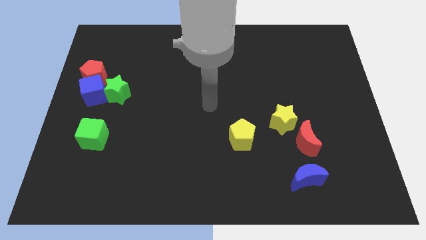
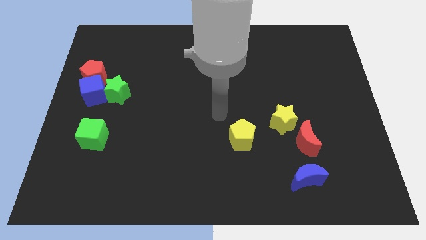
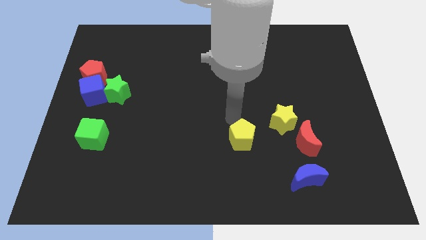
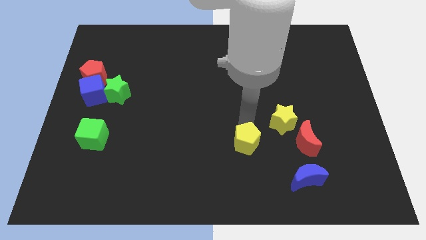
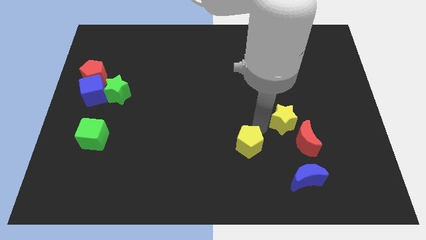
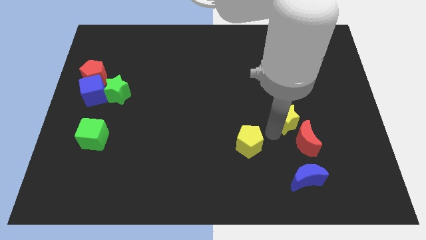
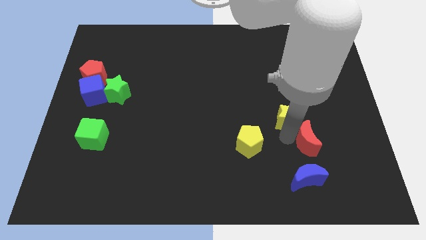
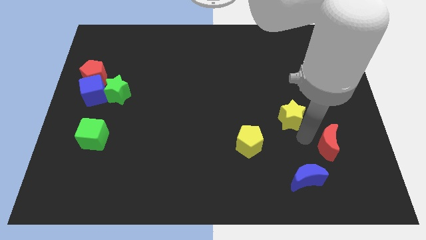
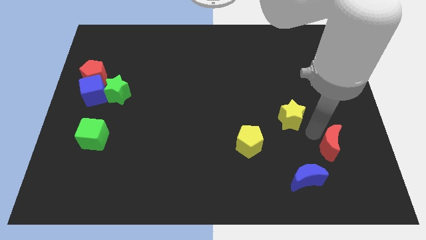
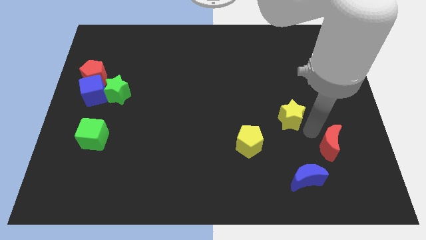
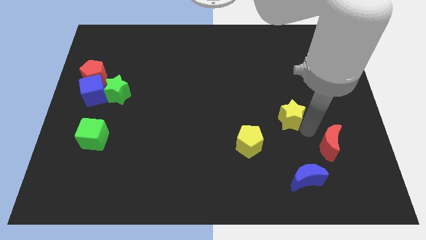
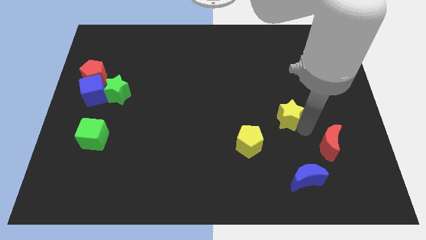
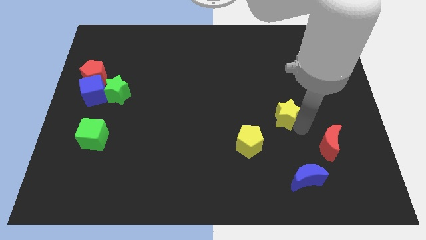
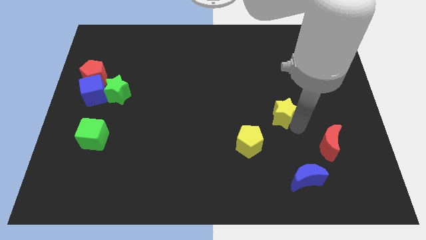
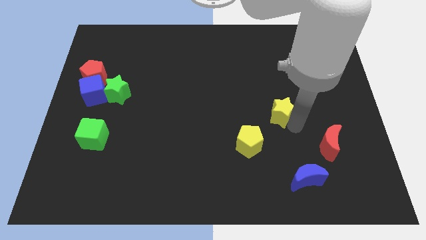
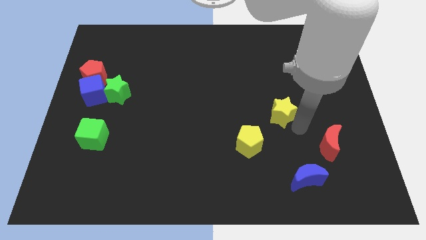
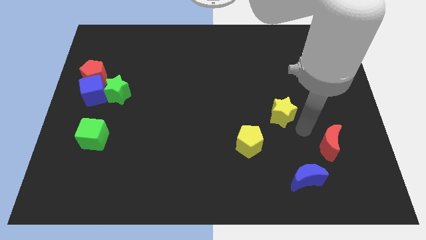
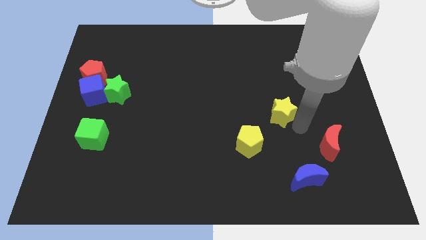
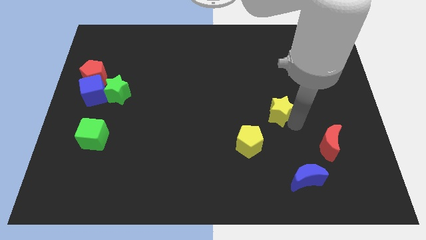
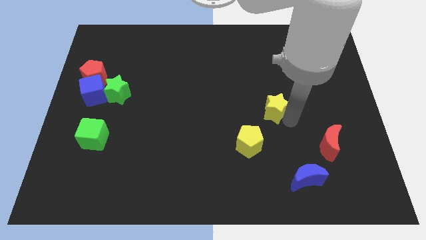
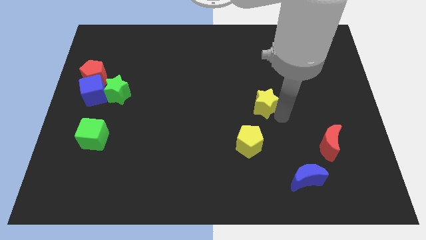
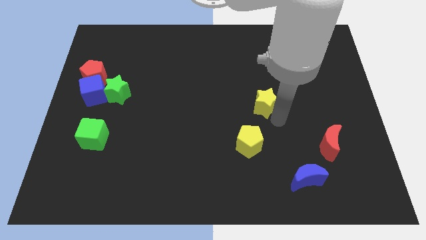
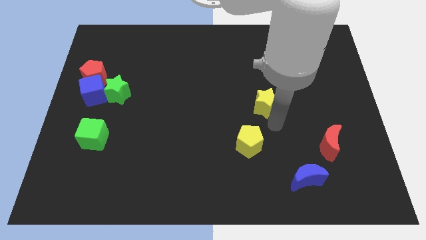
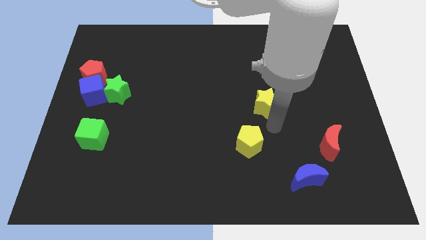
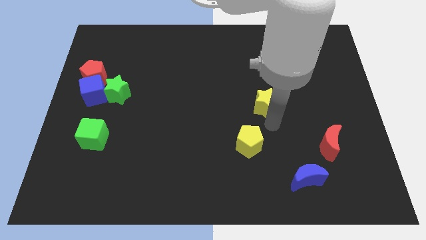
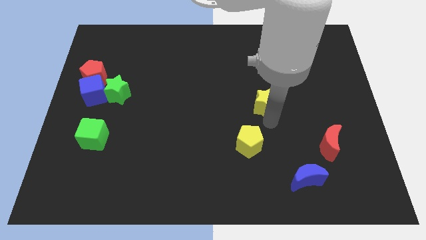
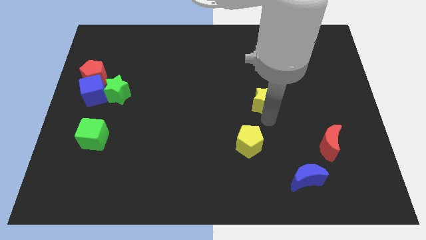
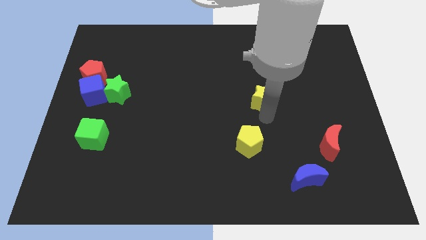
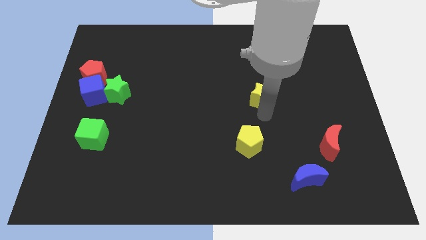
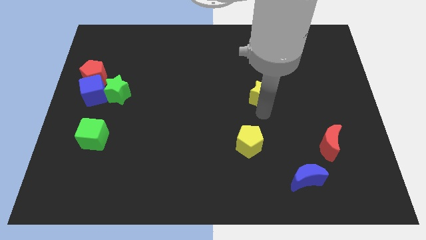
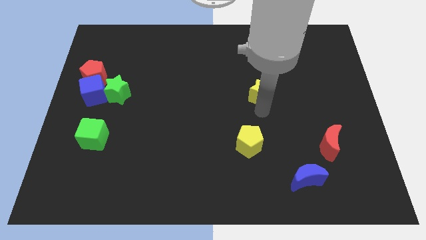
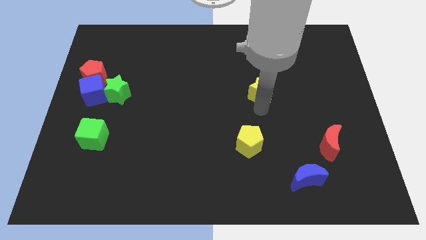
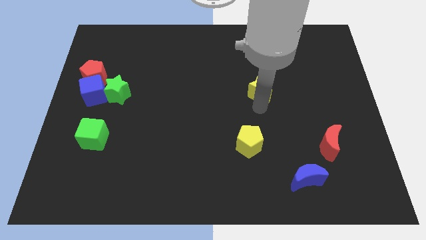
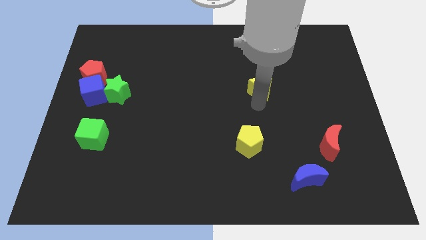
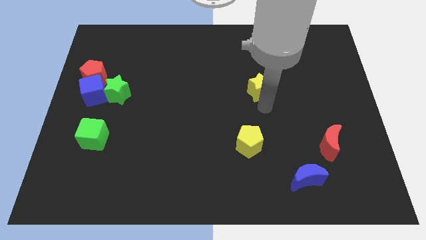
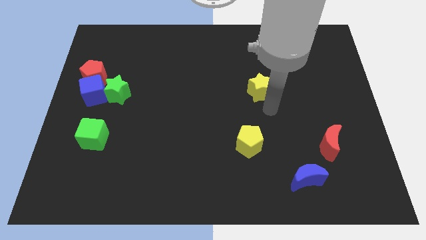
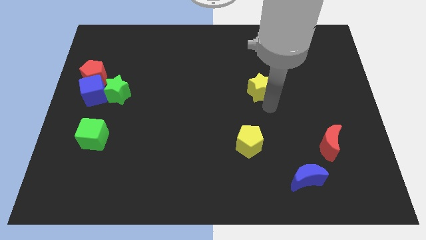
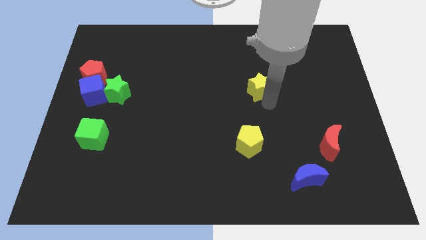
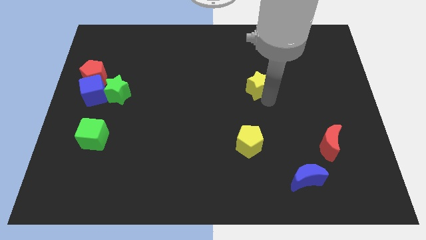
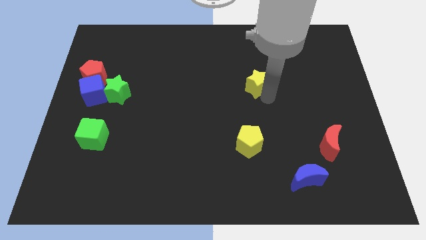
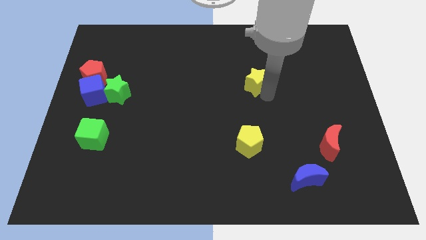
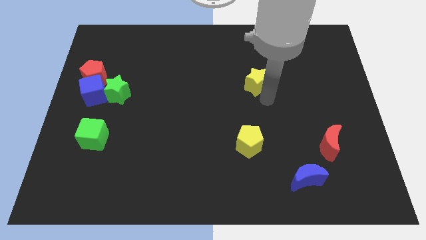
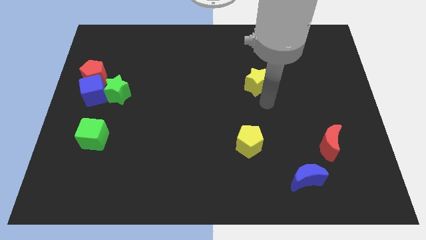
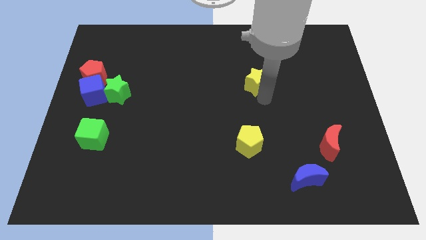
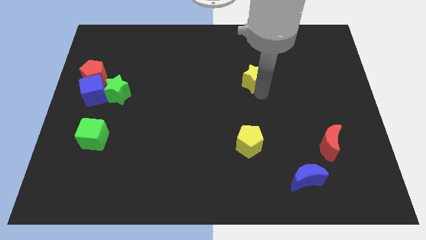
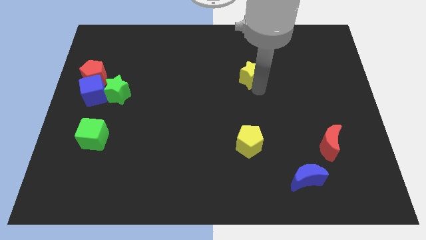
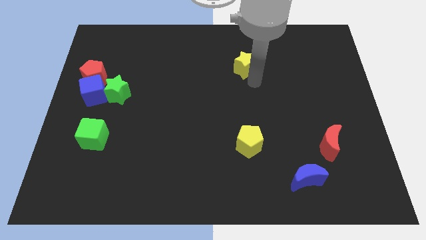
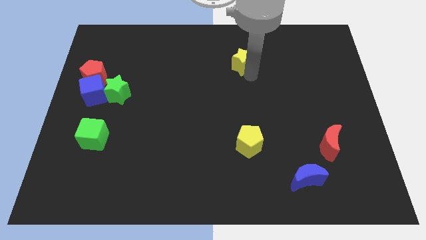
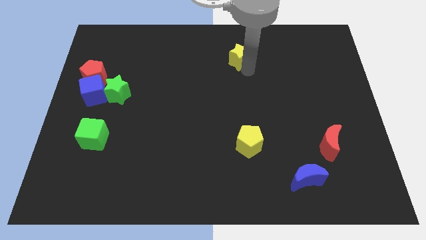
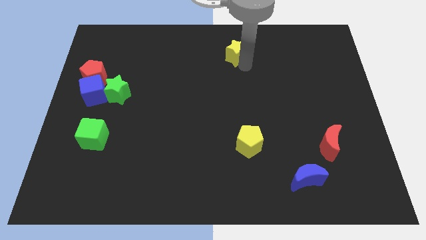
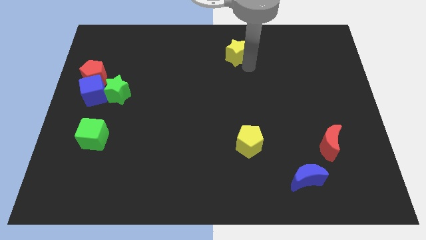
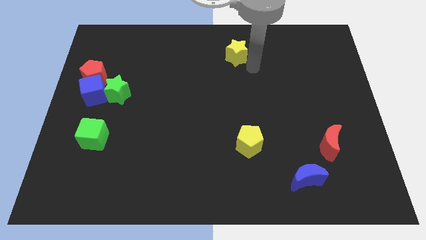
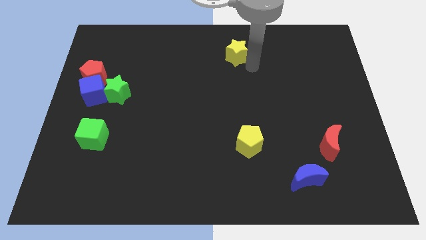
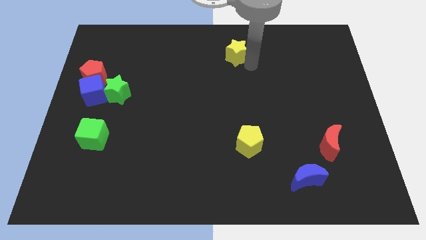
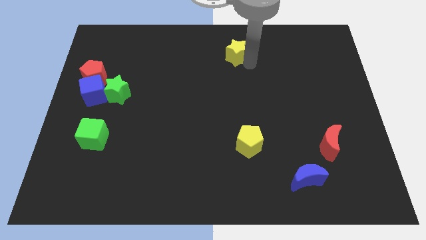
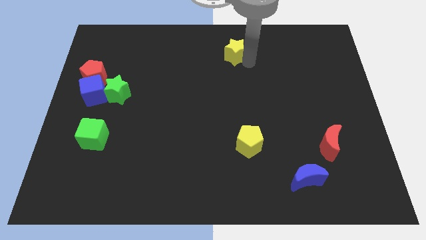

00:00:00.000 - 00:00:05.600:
push the yellow star to the towards your base
